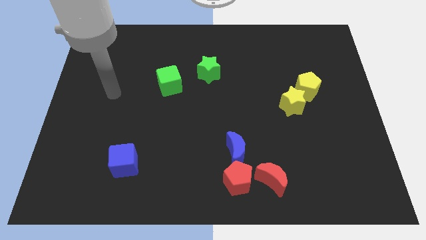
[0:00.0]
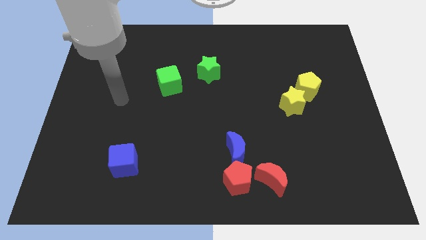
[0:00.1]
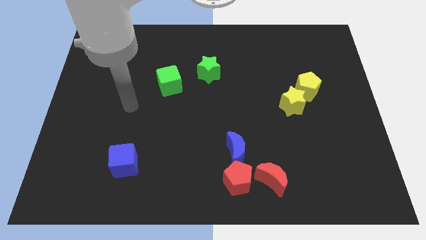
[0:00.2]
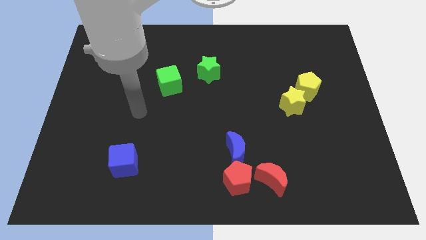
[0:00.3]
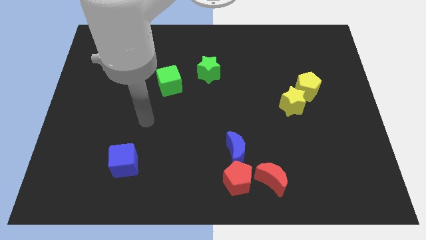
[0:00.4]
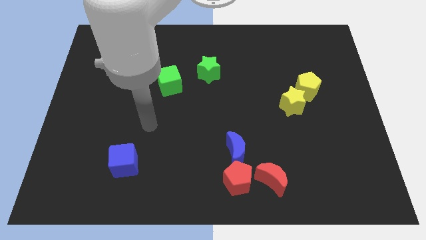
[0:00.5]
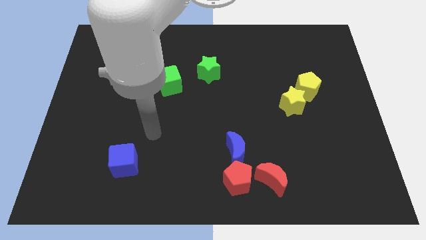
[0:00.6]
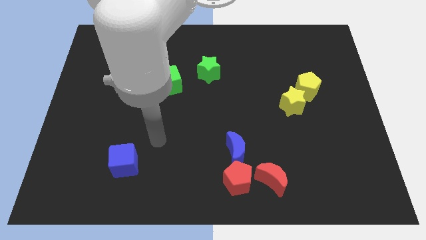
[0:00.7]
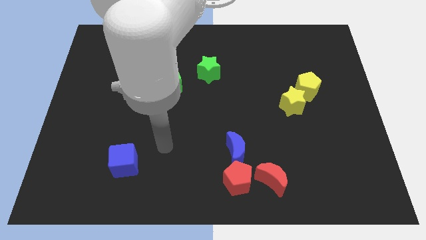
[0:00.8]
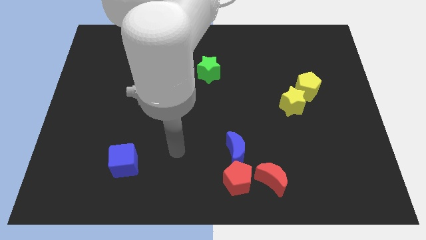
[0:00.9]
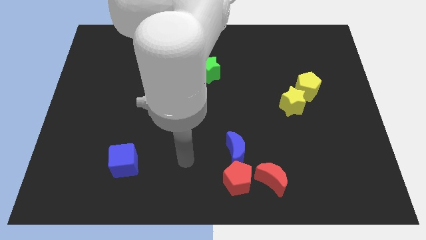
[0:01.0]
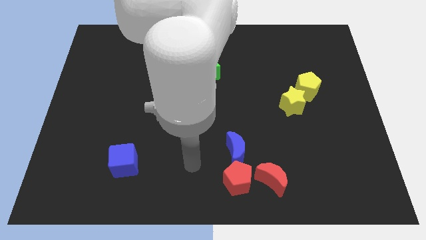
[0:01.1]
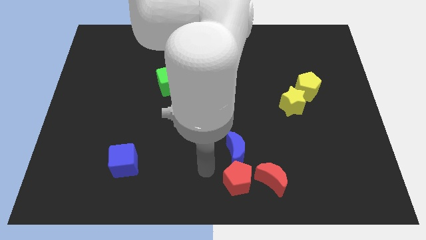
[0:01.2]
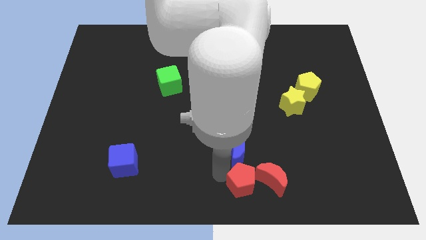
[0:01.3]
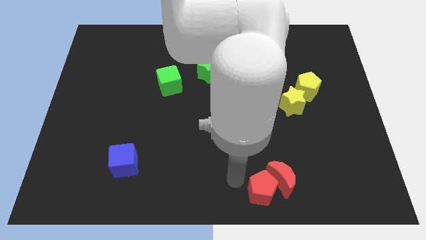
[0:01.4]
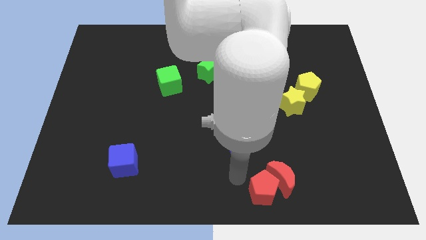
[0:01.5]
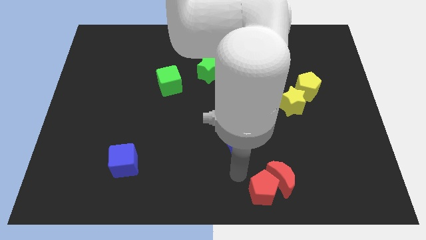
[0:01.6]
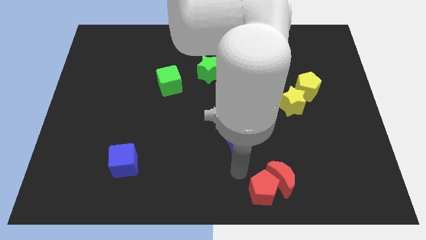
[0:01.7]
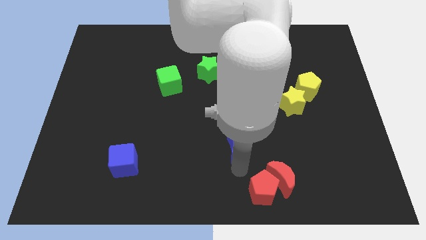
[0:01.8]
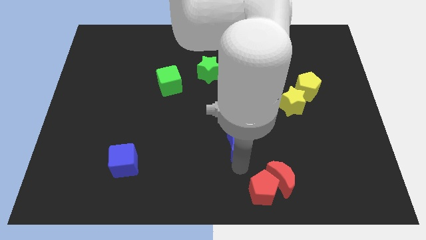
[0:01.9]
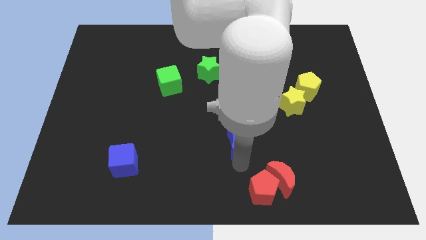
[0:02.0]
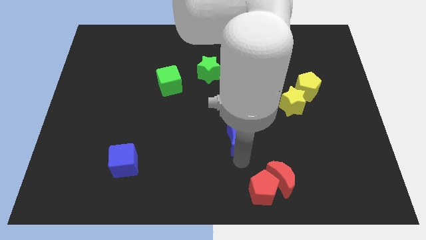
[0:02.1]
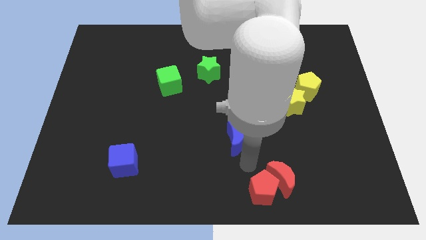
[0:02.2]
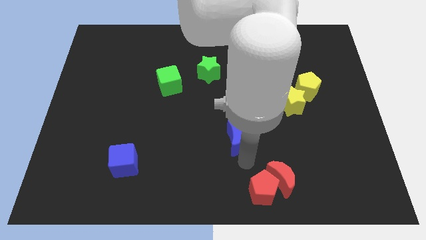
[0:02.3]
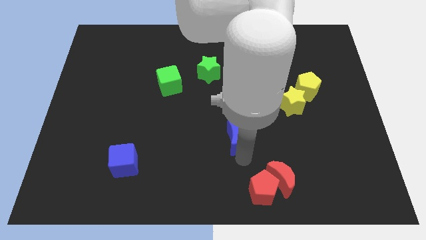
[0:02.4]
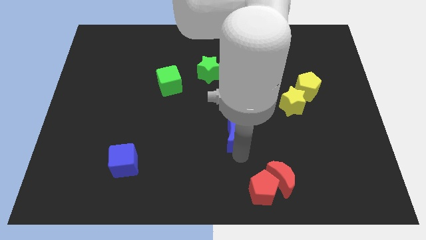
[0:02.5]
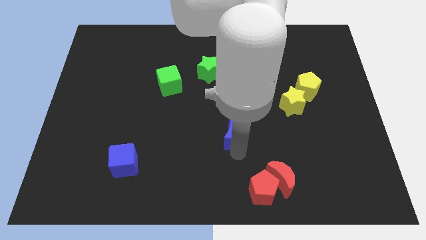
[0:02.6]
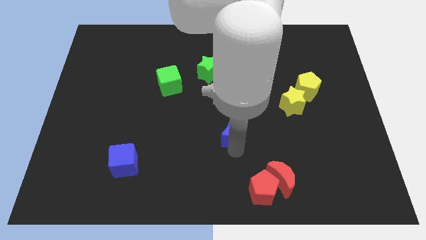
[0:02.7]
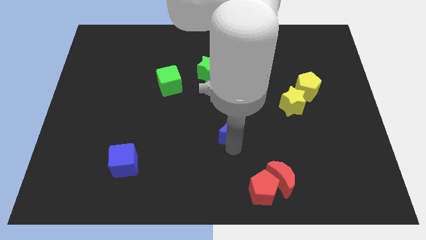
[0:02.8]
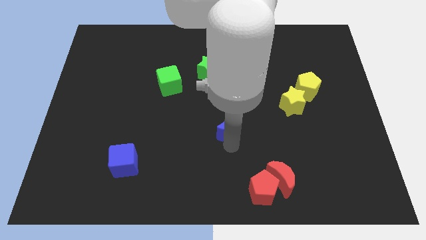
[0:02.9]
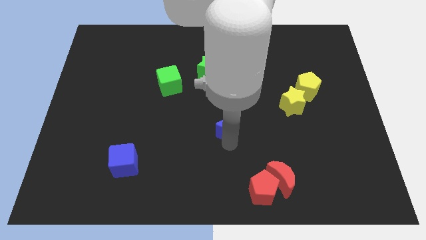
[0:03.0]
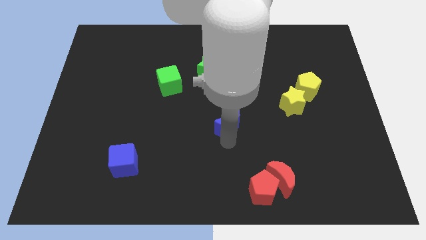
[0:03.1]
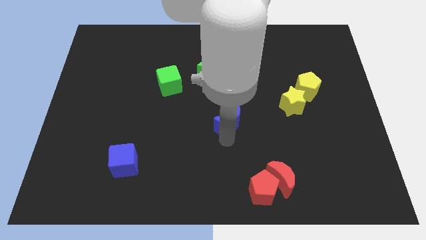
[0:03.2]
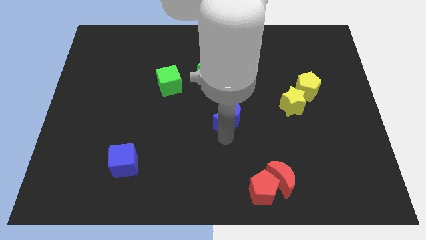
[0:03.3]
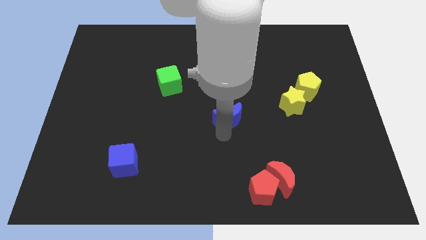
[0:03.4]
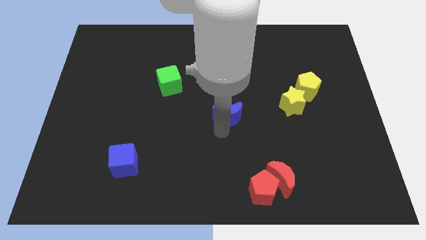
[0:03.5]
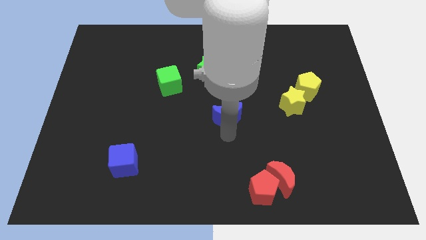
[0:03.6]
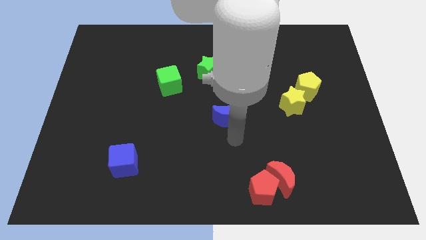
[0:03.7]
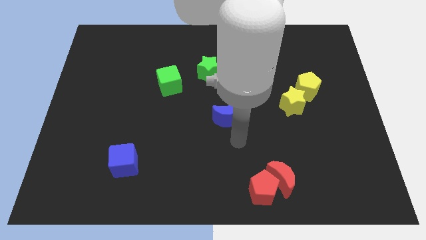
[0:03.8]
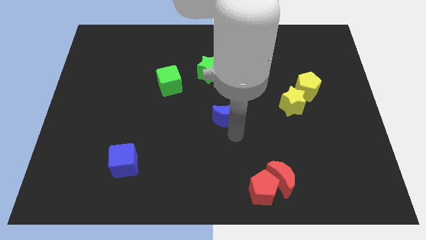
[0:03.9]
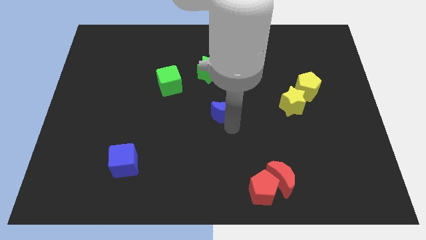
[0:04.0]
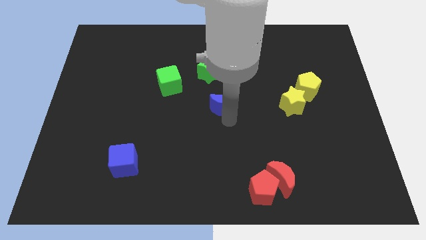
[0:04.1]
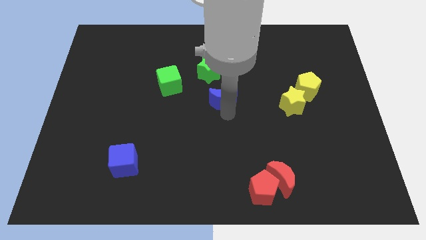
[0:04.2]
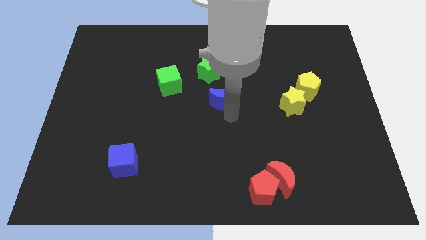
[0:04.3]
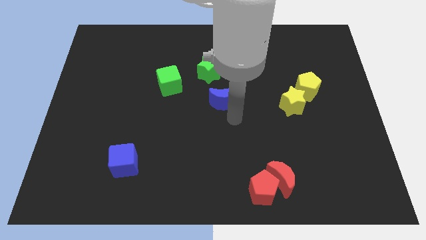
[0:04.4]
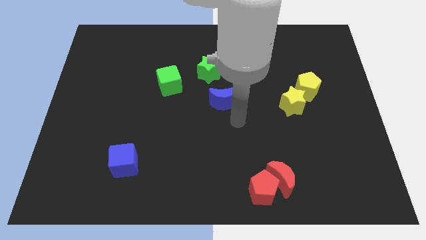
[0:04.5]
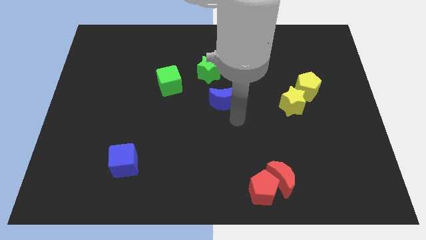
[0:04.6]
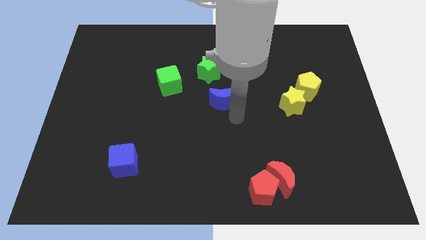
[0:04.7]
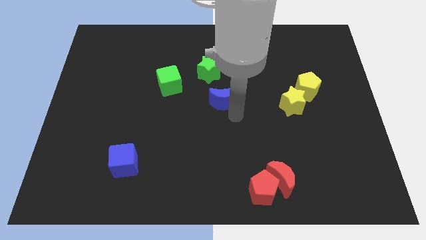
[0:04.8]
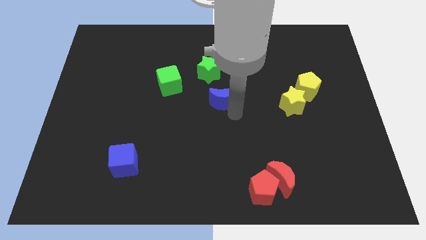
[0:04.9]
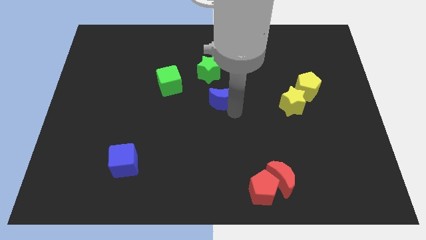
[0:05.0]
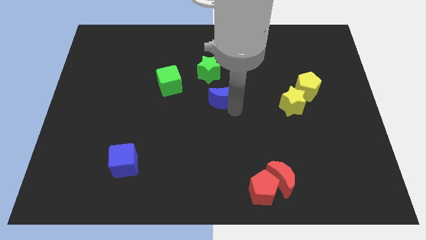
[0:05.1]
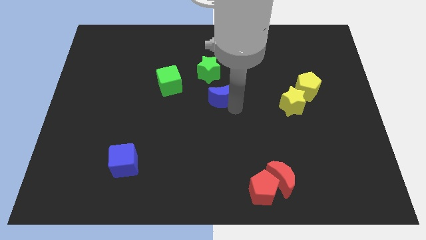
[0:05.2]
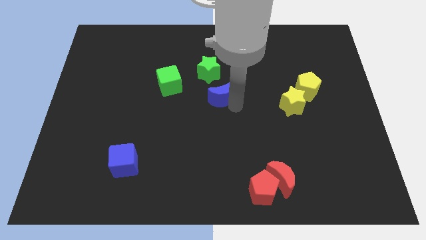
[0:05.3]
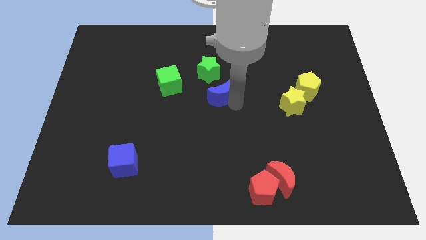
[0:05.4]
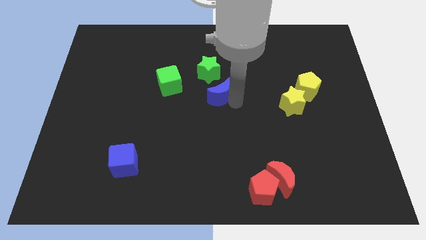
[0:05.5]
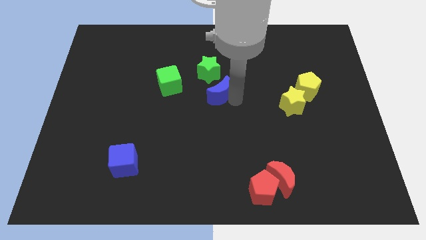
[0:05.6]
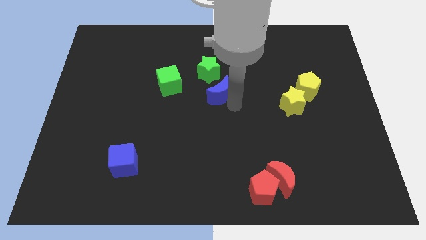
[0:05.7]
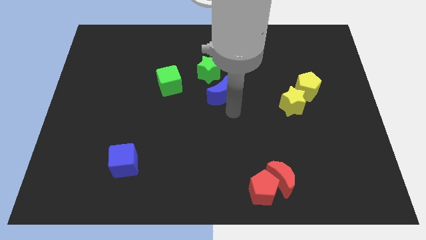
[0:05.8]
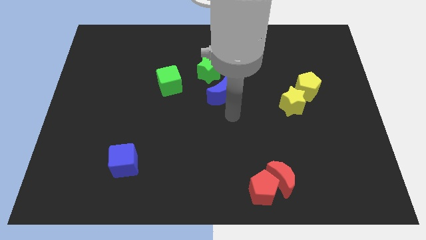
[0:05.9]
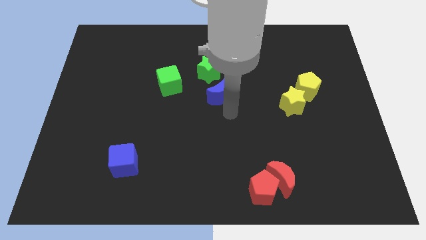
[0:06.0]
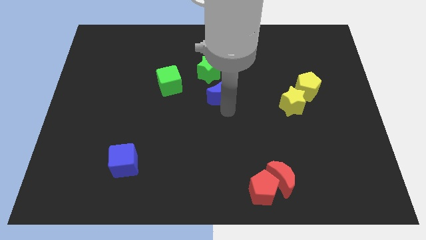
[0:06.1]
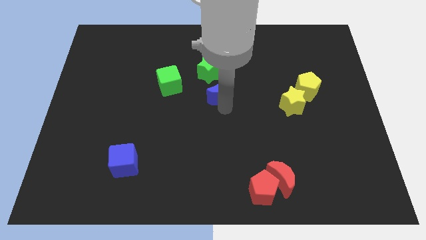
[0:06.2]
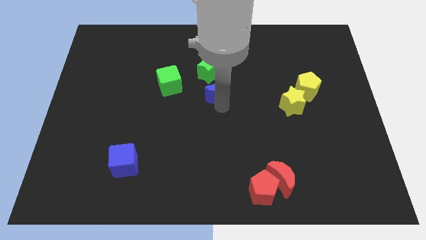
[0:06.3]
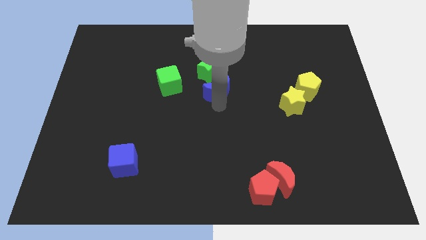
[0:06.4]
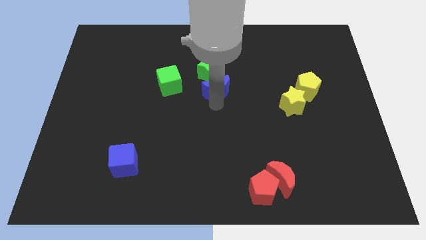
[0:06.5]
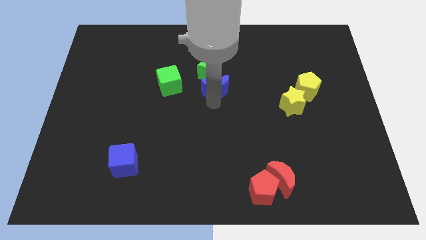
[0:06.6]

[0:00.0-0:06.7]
push the blue moon close to the green star

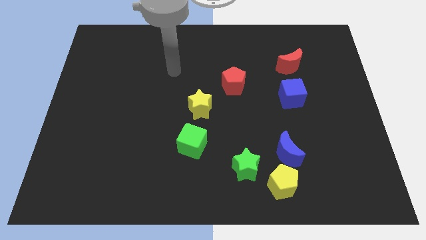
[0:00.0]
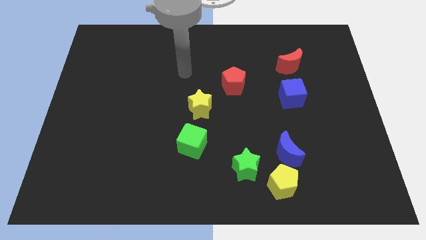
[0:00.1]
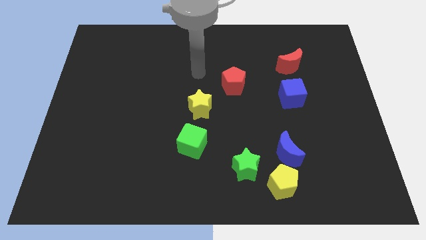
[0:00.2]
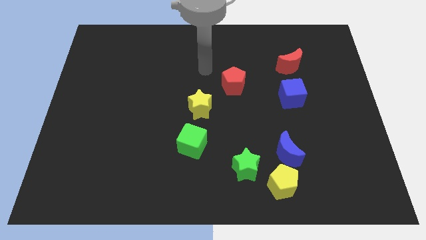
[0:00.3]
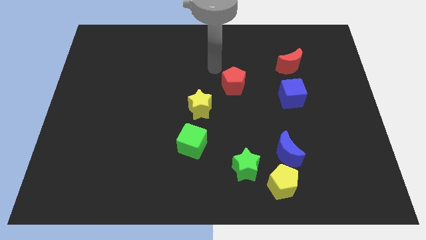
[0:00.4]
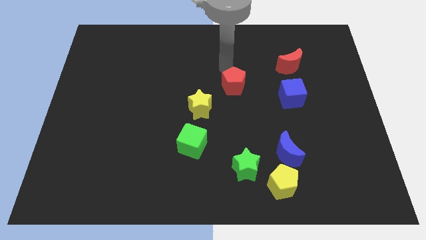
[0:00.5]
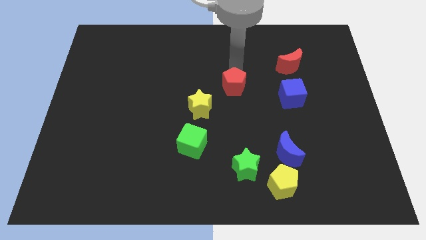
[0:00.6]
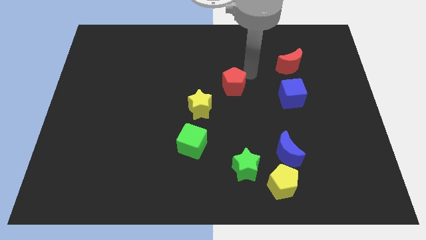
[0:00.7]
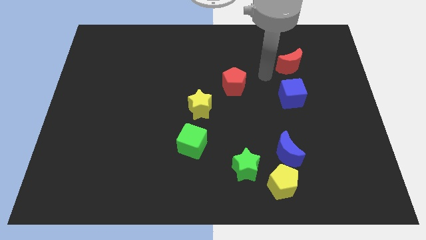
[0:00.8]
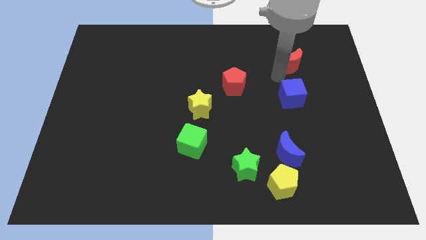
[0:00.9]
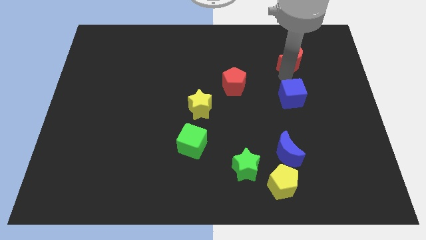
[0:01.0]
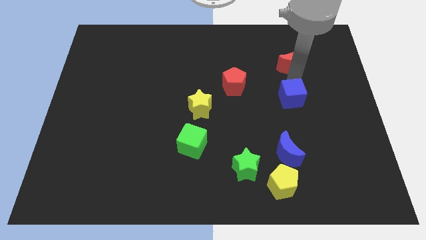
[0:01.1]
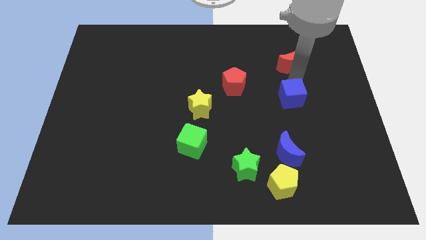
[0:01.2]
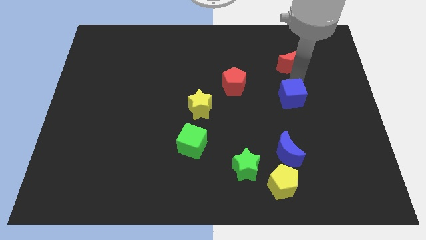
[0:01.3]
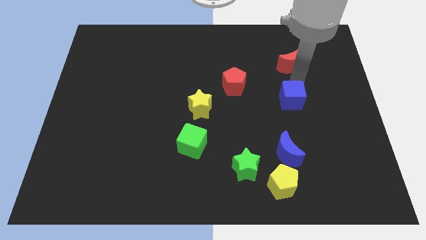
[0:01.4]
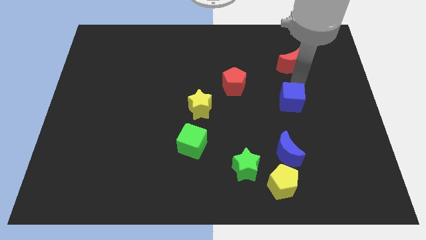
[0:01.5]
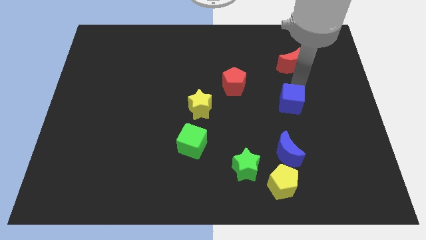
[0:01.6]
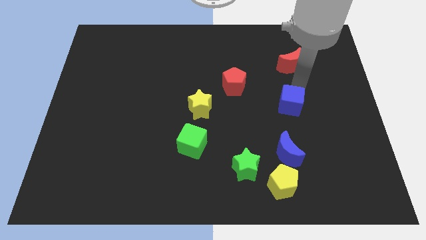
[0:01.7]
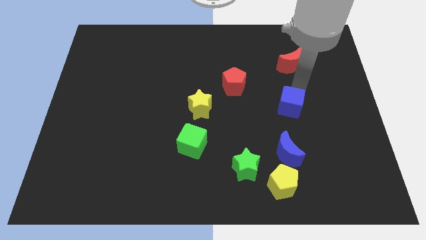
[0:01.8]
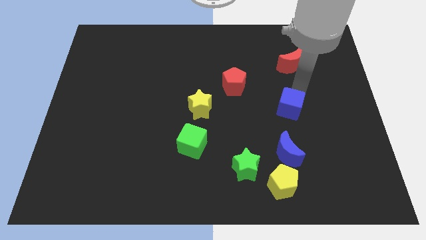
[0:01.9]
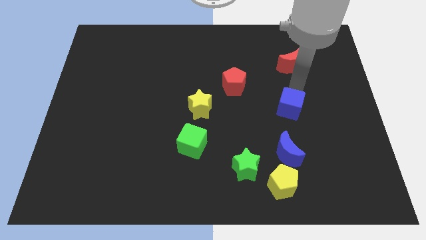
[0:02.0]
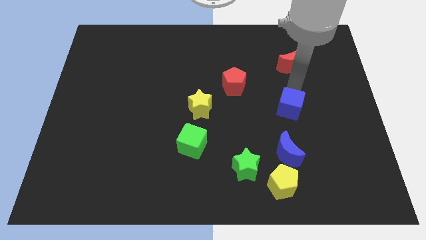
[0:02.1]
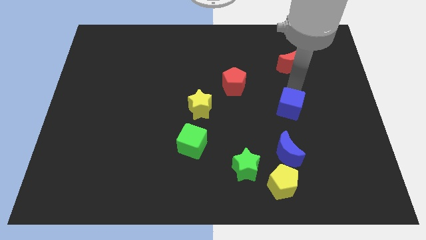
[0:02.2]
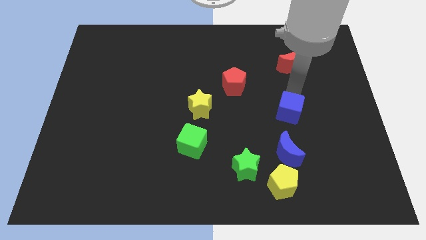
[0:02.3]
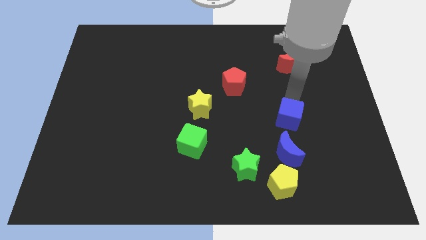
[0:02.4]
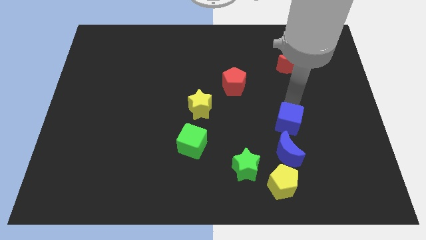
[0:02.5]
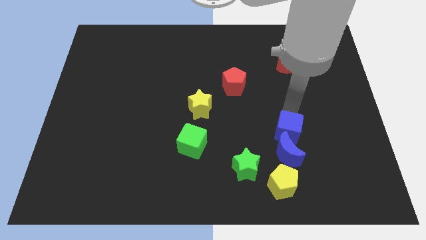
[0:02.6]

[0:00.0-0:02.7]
put the blue cube close to the blue moon
